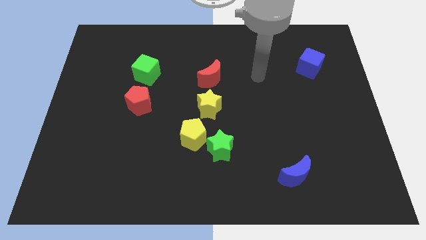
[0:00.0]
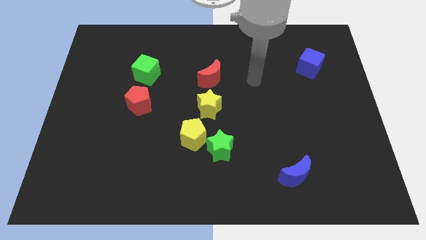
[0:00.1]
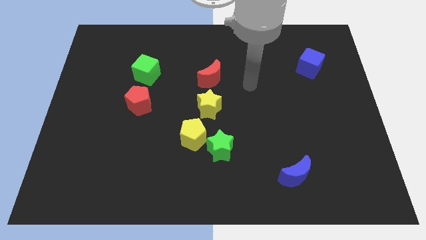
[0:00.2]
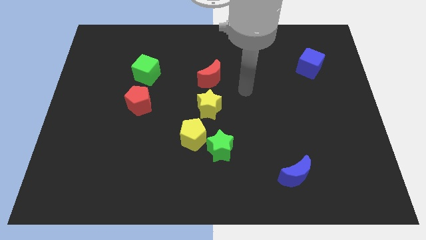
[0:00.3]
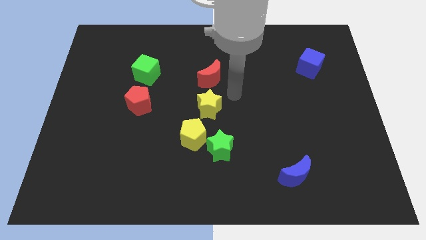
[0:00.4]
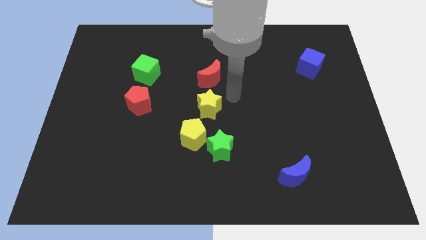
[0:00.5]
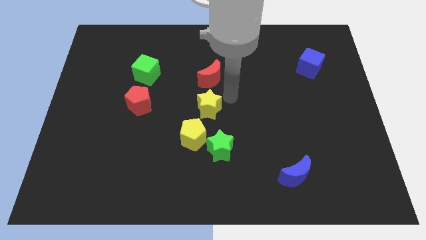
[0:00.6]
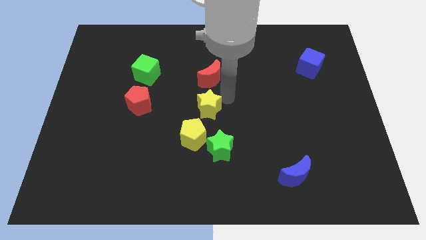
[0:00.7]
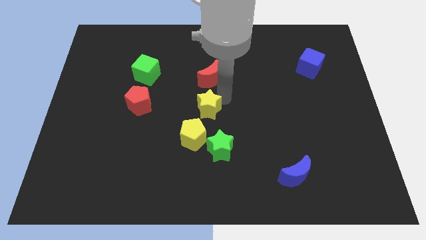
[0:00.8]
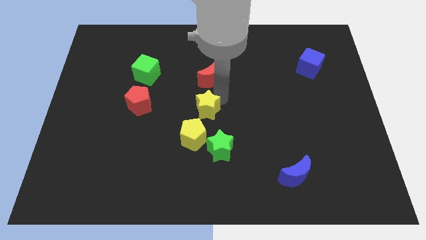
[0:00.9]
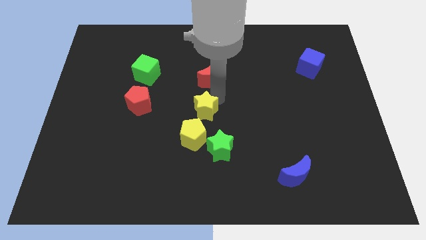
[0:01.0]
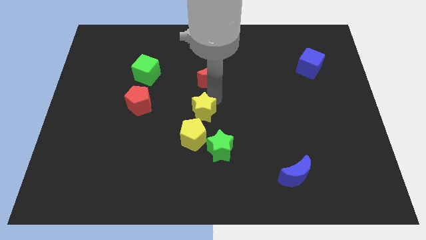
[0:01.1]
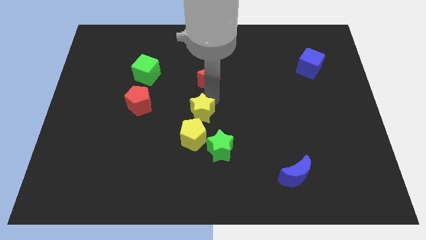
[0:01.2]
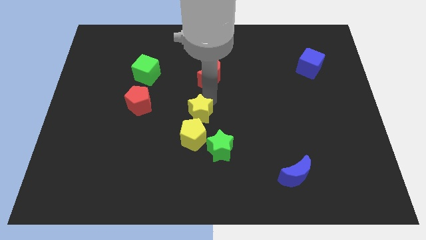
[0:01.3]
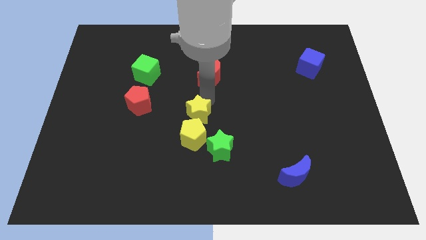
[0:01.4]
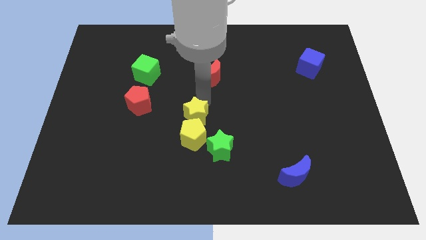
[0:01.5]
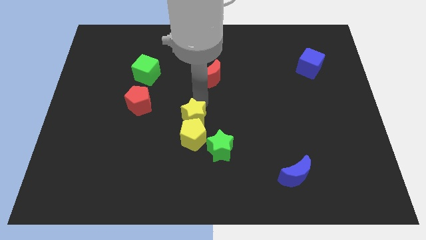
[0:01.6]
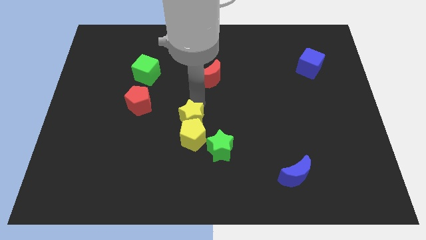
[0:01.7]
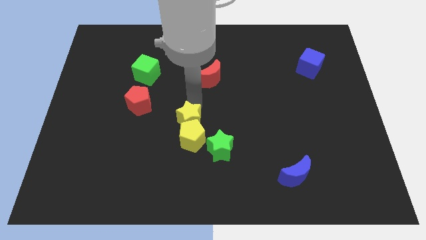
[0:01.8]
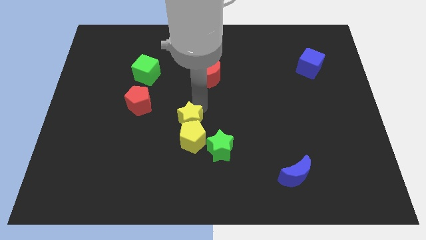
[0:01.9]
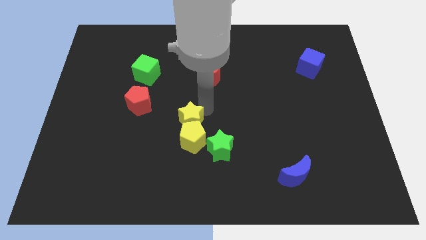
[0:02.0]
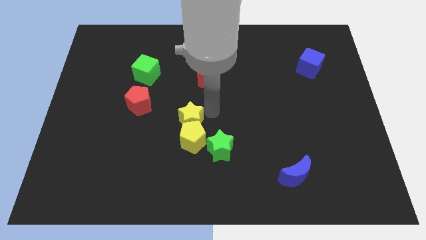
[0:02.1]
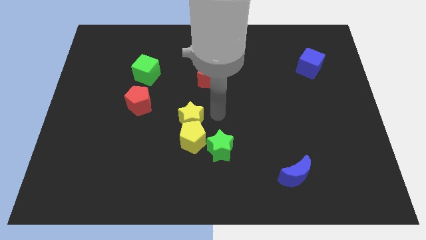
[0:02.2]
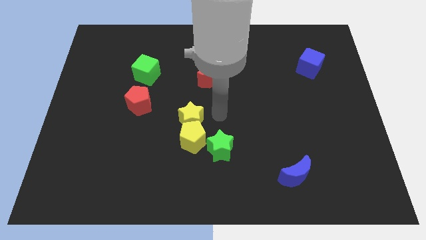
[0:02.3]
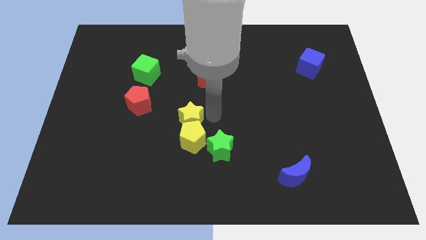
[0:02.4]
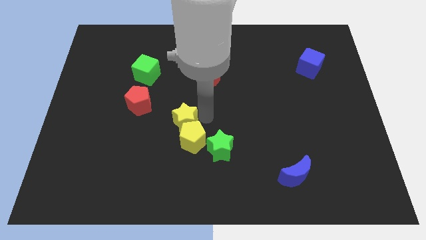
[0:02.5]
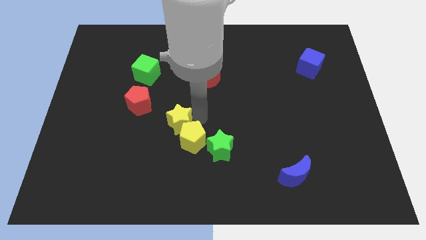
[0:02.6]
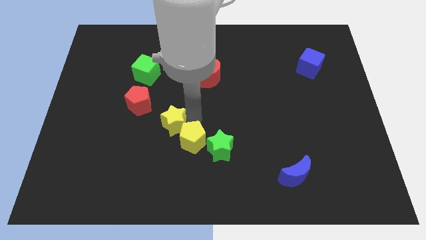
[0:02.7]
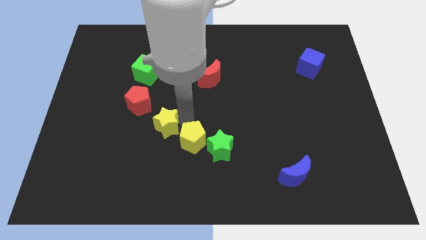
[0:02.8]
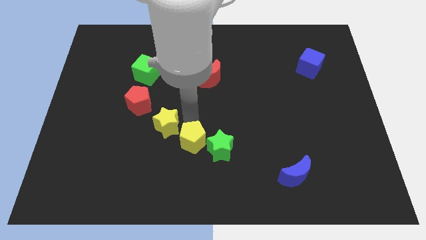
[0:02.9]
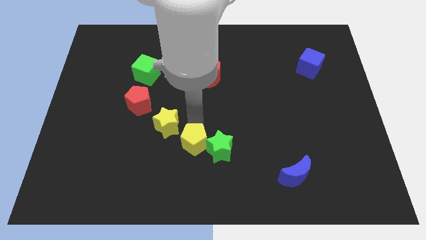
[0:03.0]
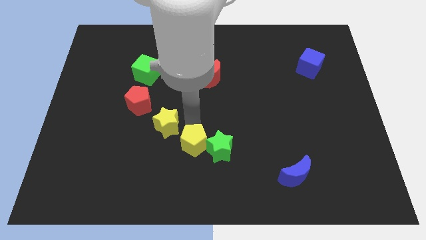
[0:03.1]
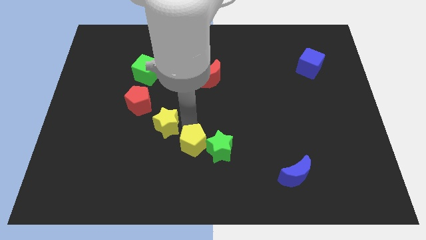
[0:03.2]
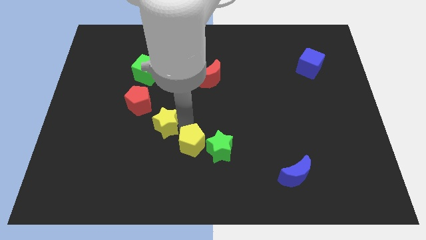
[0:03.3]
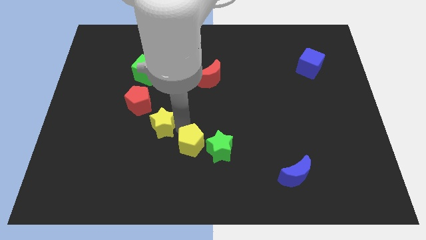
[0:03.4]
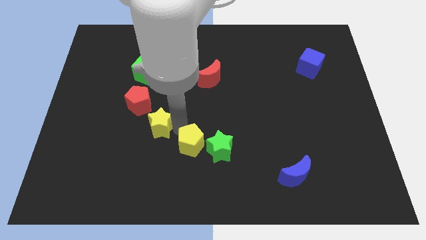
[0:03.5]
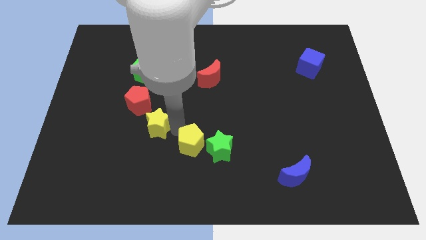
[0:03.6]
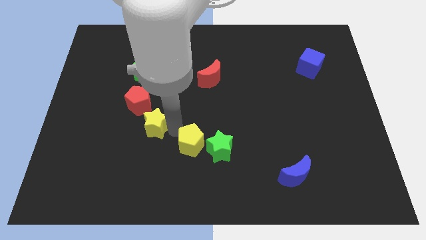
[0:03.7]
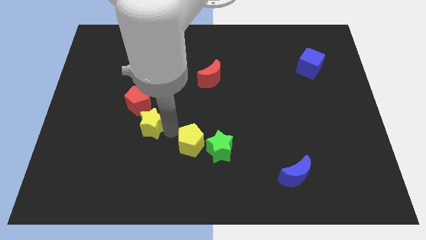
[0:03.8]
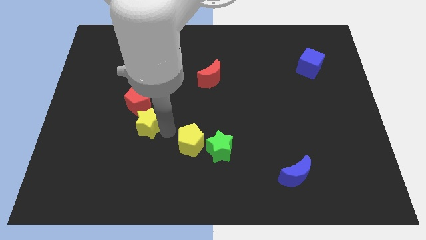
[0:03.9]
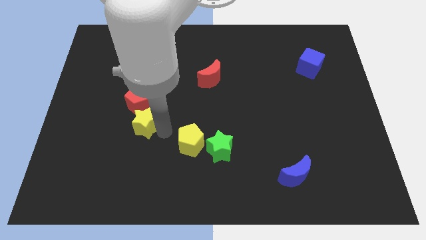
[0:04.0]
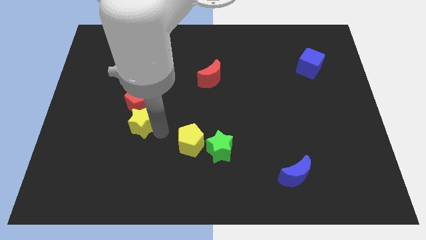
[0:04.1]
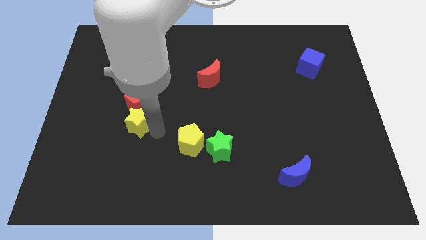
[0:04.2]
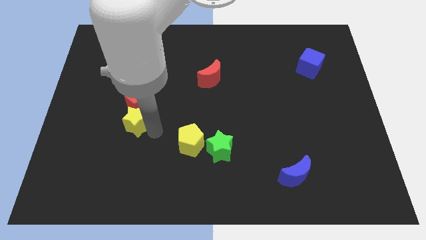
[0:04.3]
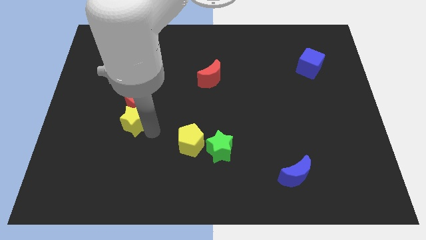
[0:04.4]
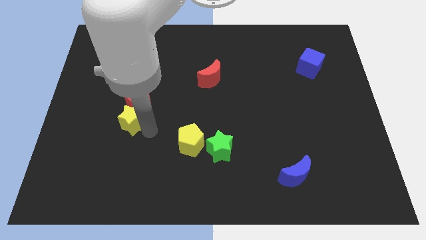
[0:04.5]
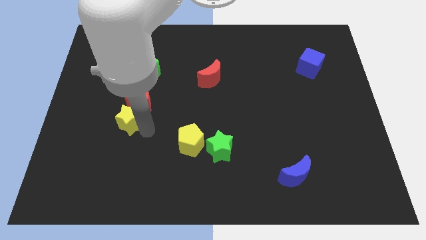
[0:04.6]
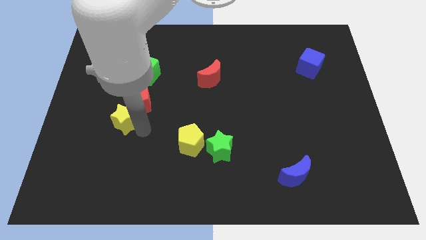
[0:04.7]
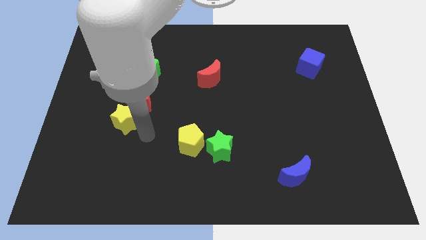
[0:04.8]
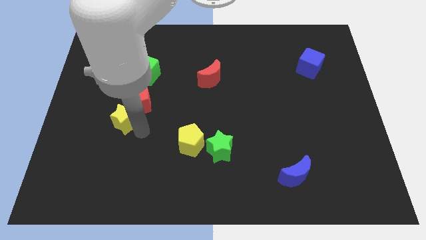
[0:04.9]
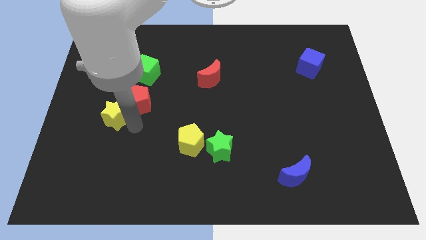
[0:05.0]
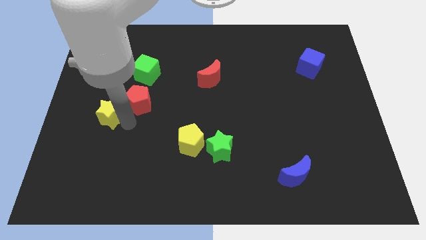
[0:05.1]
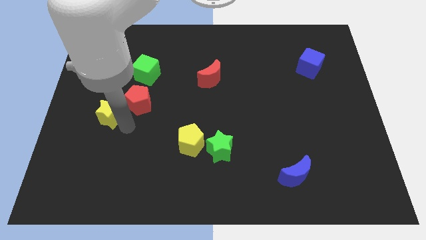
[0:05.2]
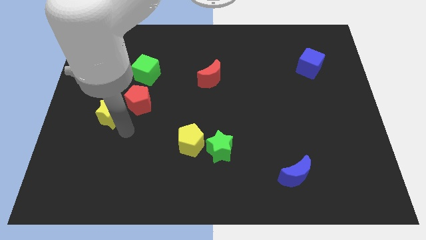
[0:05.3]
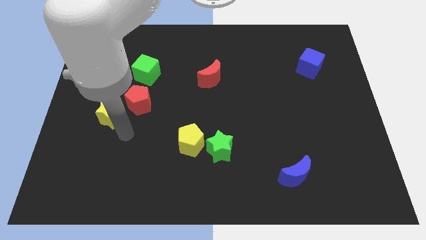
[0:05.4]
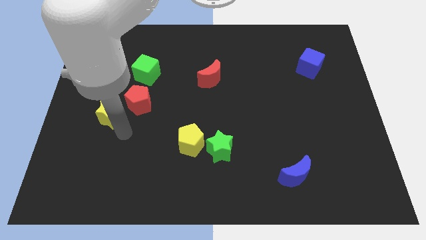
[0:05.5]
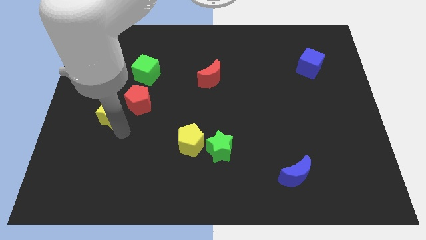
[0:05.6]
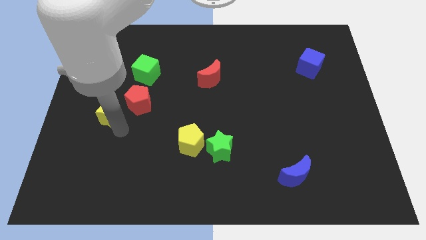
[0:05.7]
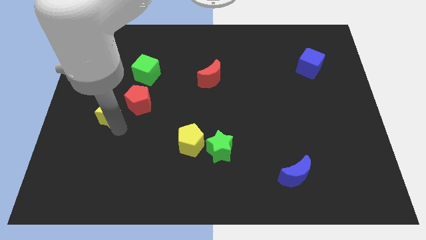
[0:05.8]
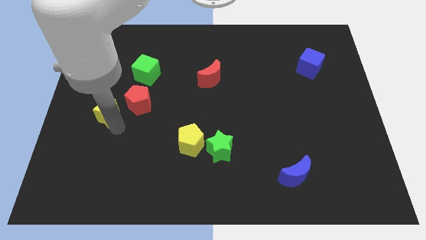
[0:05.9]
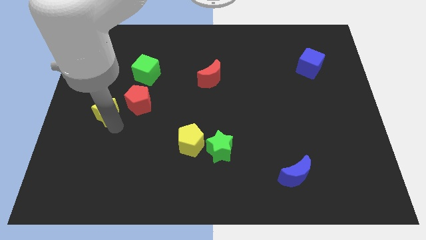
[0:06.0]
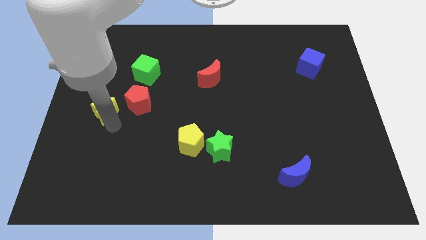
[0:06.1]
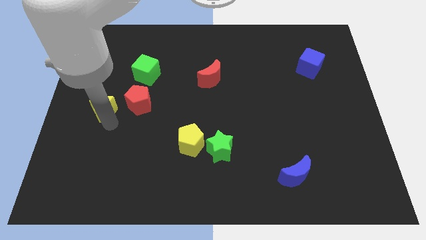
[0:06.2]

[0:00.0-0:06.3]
push the yellow star to the left side of the board
